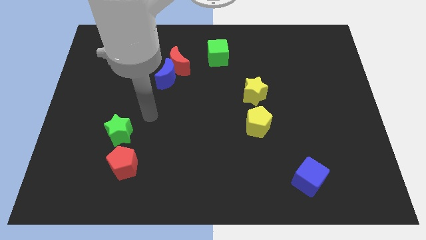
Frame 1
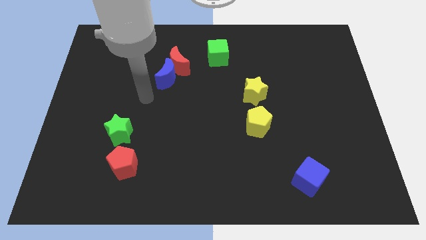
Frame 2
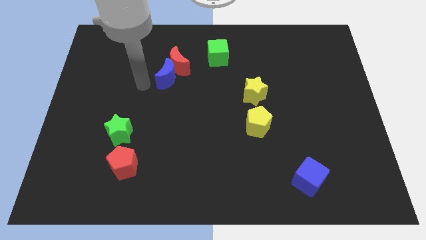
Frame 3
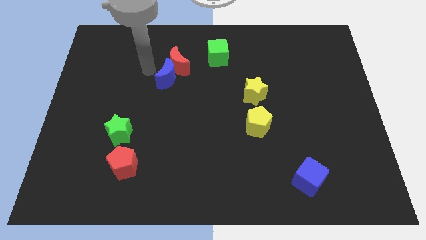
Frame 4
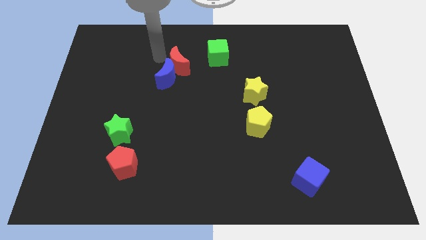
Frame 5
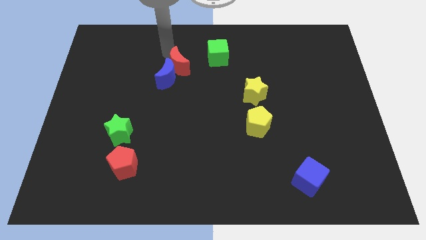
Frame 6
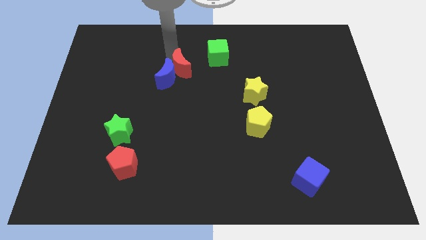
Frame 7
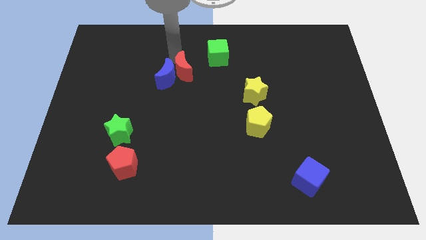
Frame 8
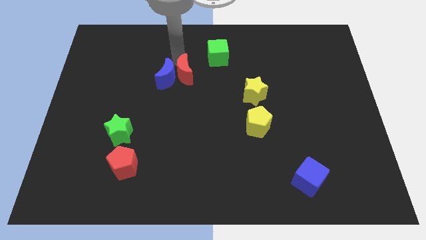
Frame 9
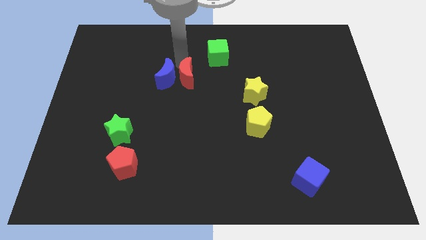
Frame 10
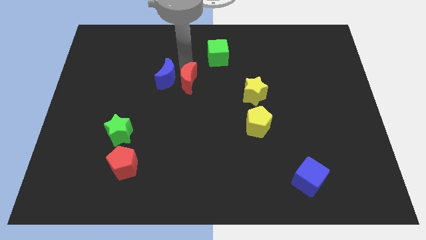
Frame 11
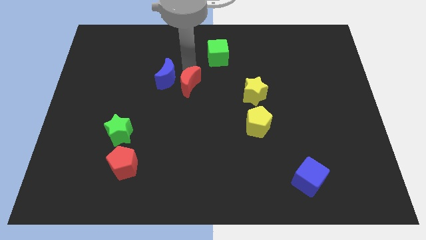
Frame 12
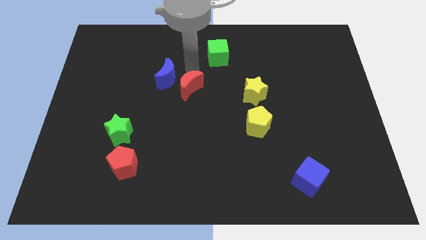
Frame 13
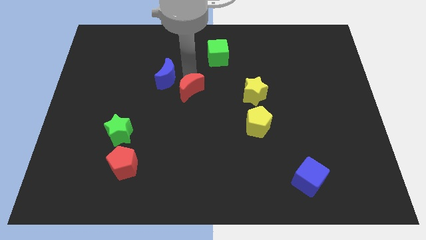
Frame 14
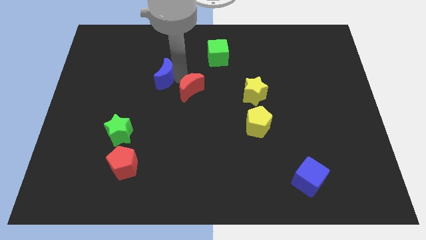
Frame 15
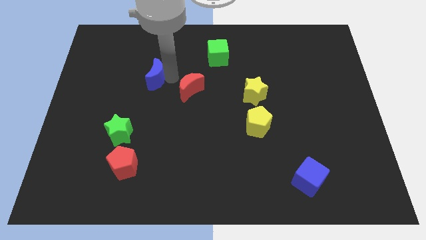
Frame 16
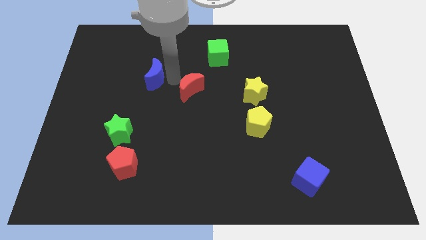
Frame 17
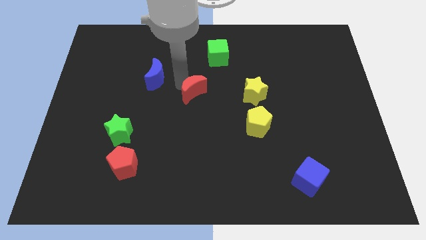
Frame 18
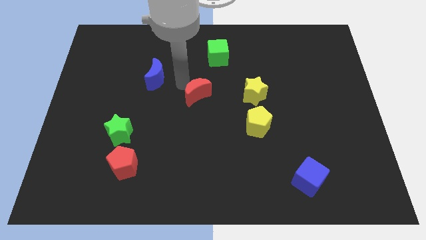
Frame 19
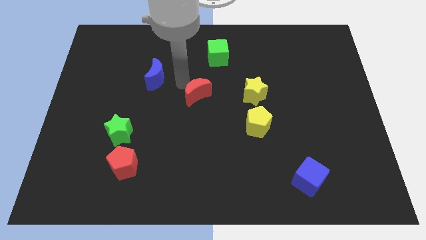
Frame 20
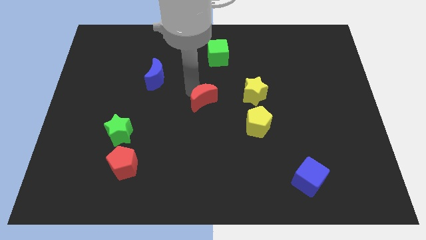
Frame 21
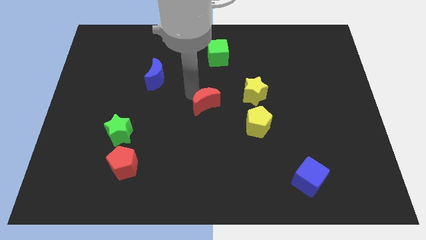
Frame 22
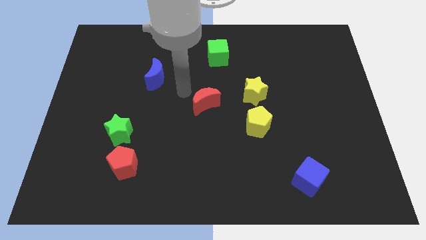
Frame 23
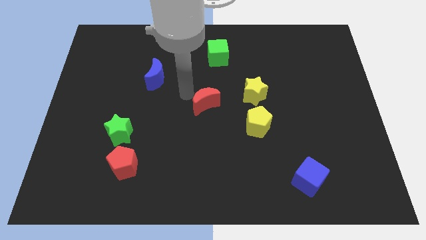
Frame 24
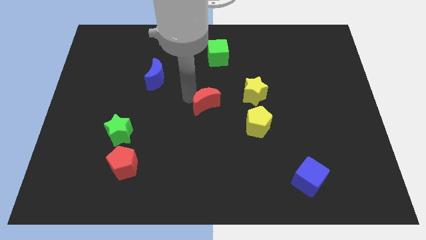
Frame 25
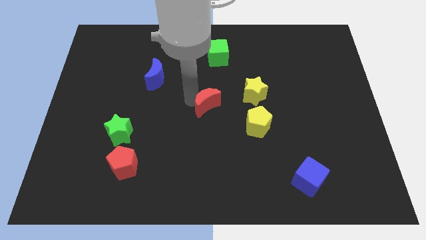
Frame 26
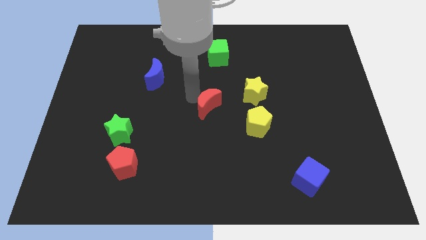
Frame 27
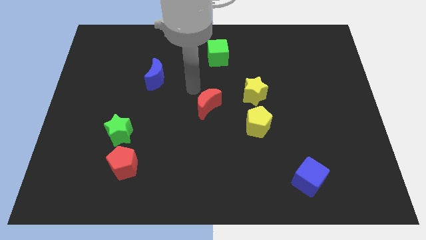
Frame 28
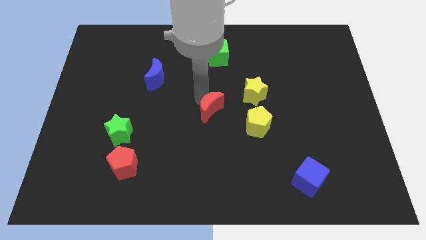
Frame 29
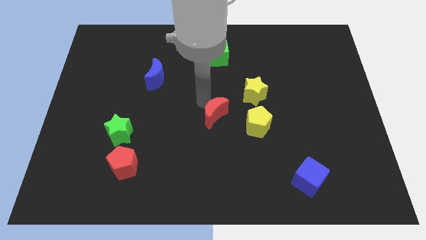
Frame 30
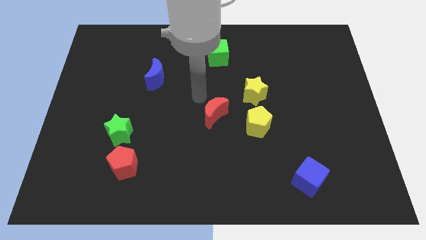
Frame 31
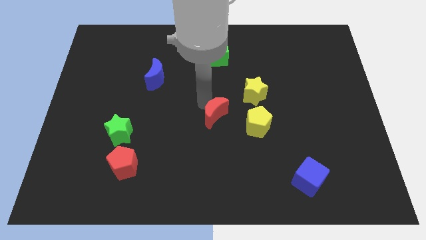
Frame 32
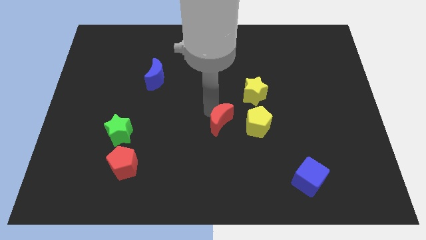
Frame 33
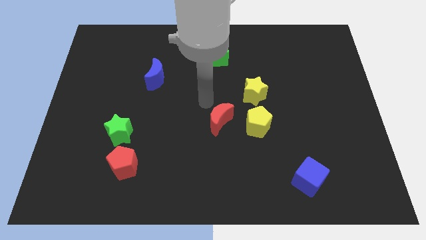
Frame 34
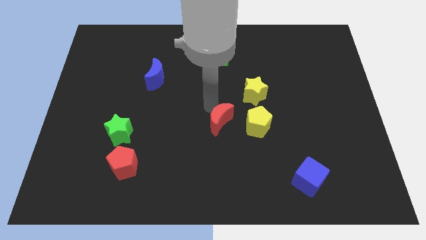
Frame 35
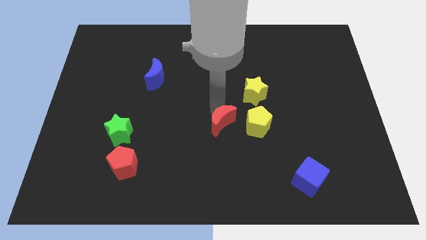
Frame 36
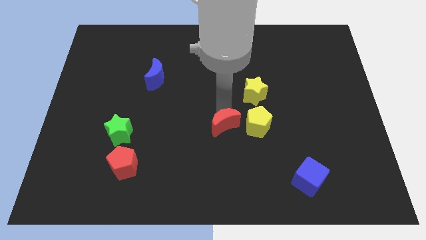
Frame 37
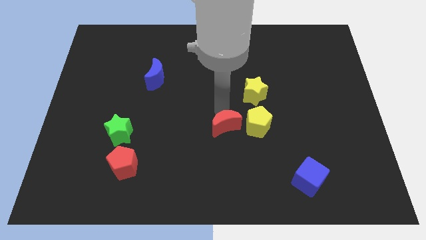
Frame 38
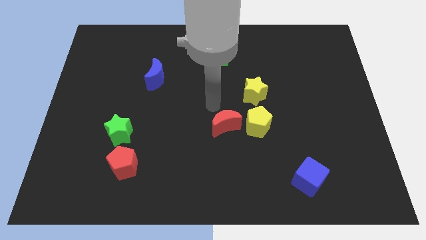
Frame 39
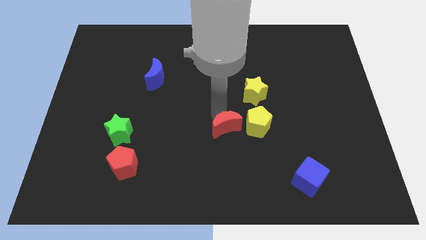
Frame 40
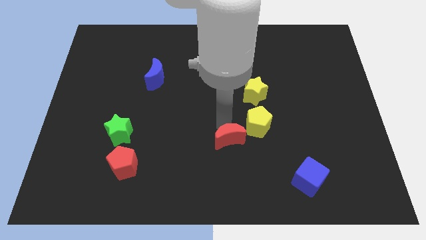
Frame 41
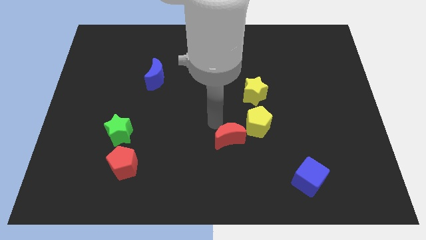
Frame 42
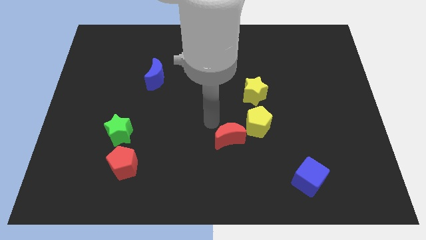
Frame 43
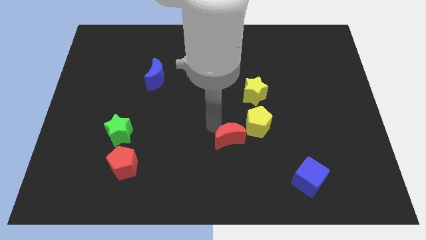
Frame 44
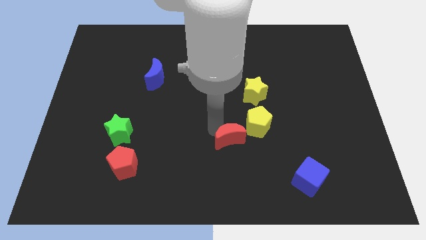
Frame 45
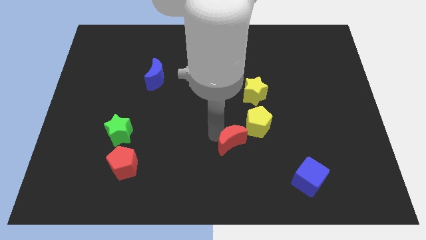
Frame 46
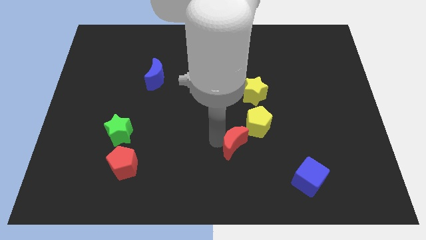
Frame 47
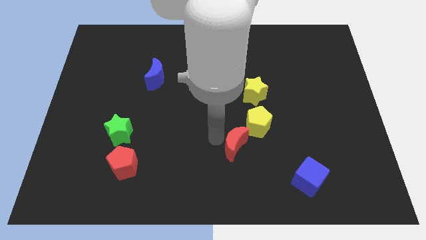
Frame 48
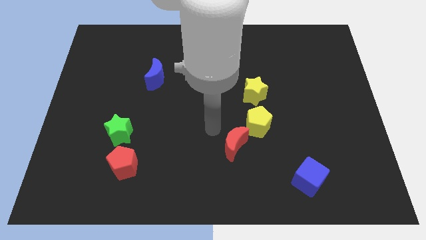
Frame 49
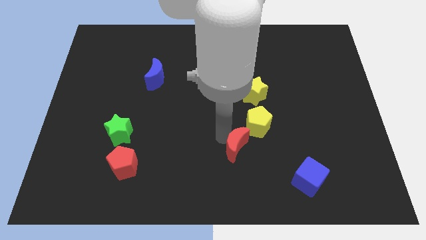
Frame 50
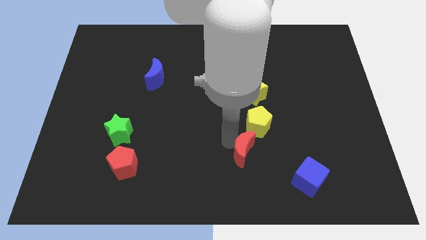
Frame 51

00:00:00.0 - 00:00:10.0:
move the red moon below the yellow pentagon

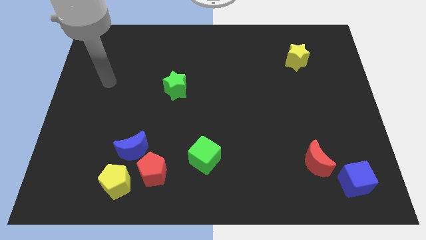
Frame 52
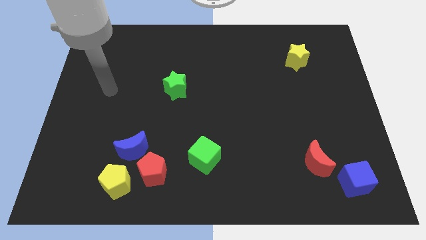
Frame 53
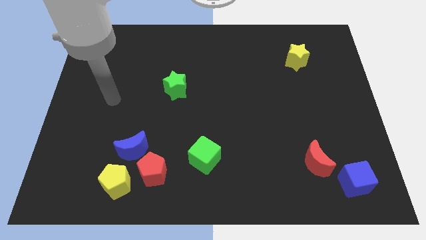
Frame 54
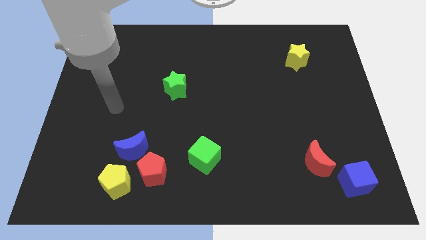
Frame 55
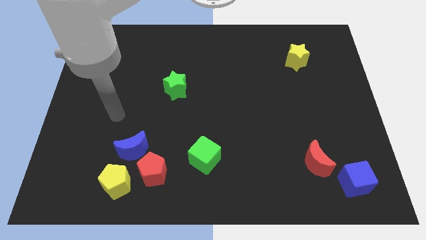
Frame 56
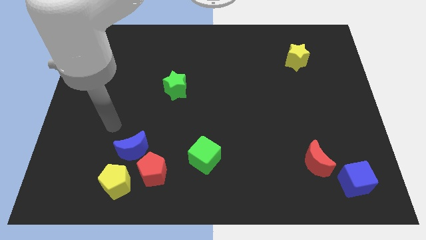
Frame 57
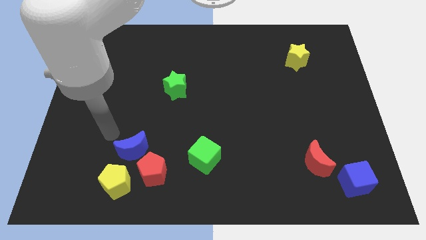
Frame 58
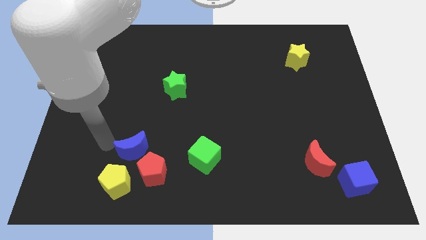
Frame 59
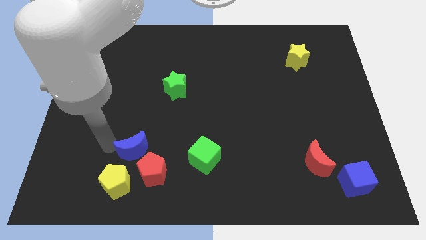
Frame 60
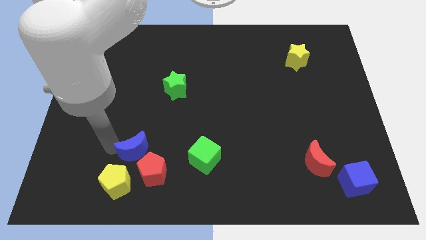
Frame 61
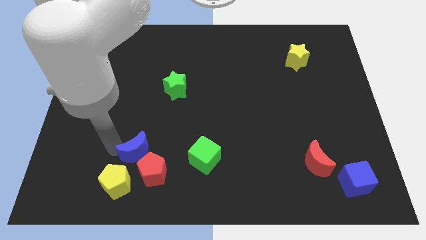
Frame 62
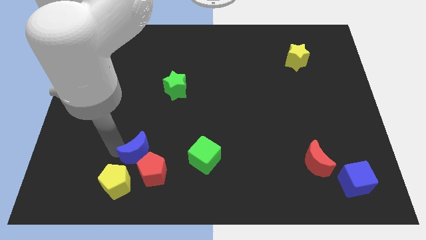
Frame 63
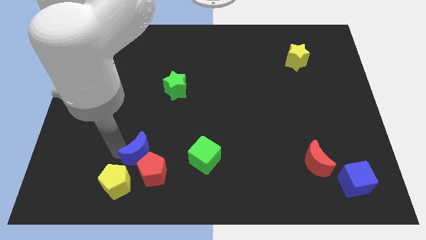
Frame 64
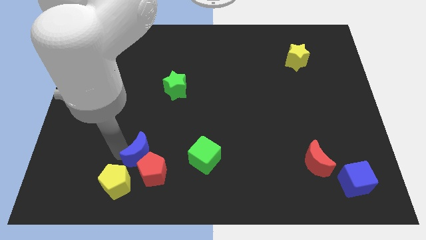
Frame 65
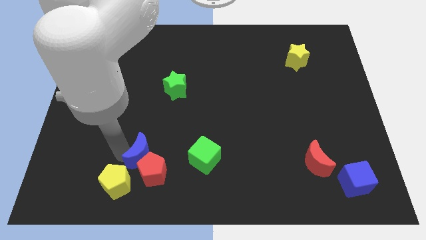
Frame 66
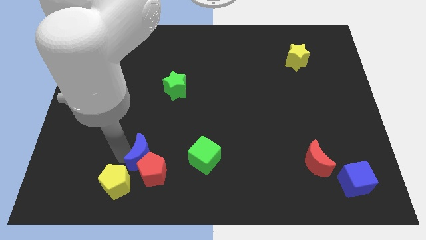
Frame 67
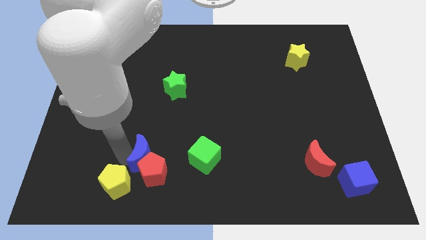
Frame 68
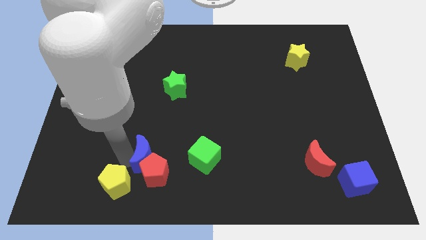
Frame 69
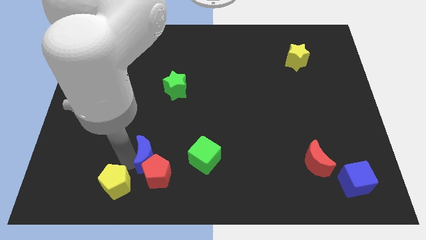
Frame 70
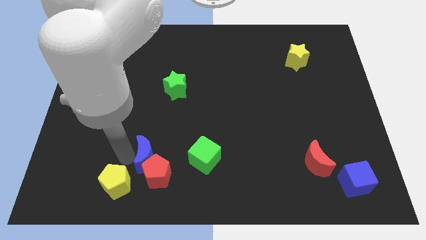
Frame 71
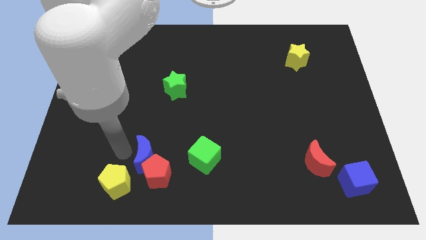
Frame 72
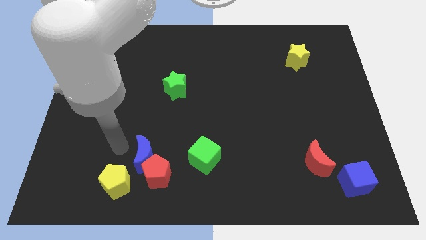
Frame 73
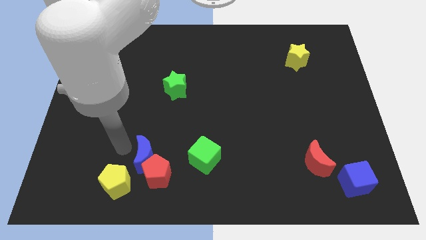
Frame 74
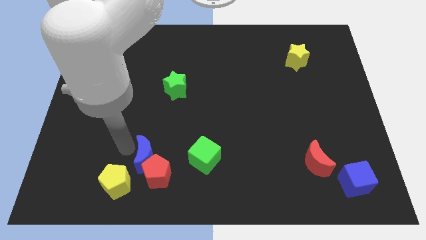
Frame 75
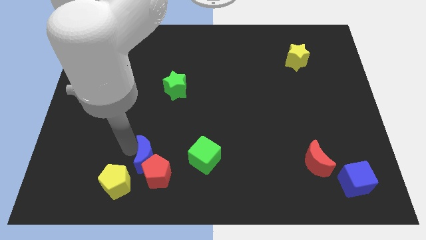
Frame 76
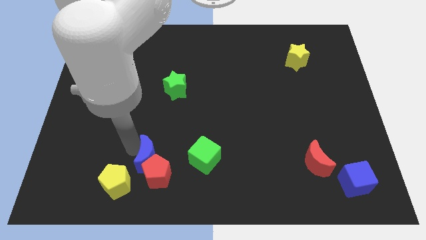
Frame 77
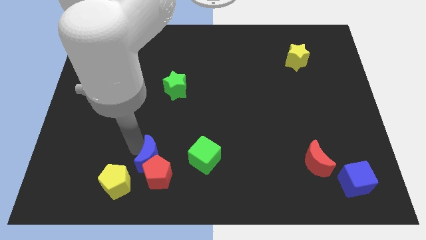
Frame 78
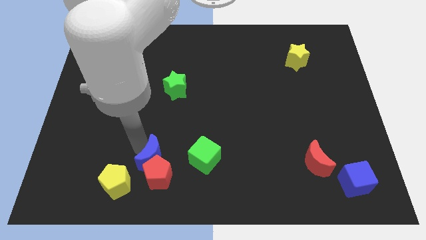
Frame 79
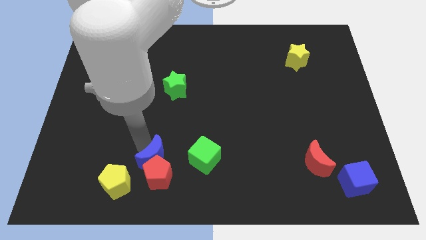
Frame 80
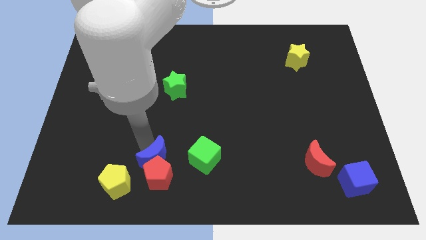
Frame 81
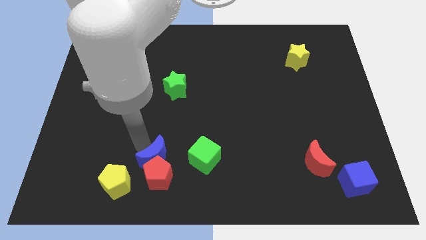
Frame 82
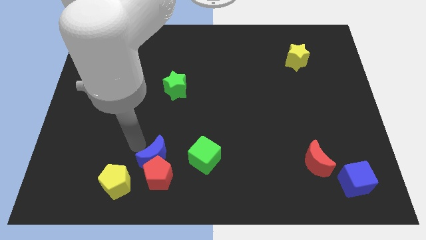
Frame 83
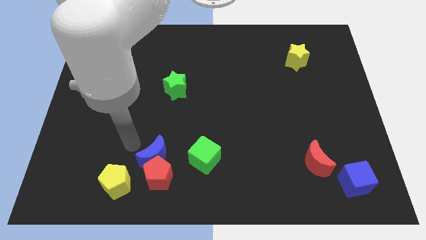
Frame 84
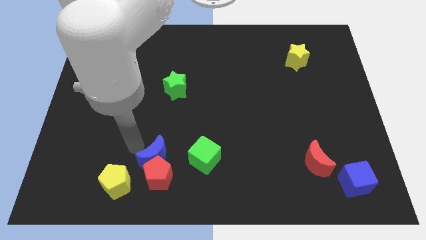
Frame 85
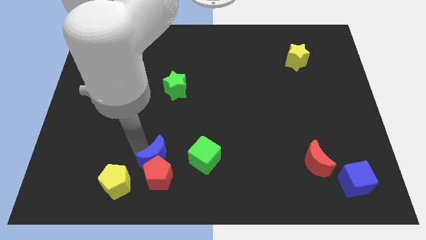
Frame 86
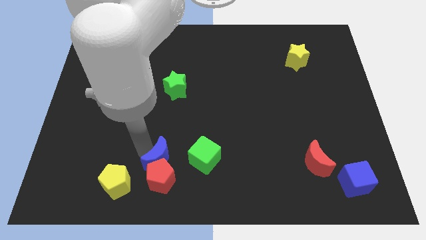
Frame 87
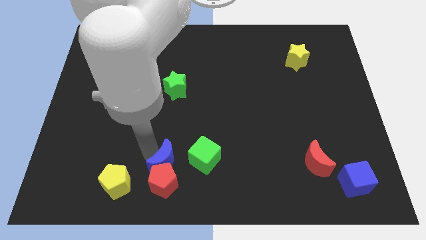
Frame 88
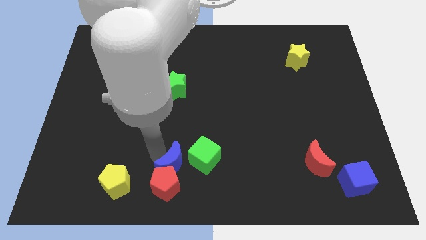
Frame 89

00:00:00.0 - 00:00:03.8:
move the blue moon diagonally down and to the left of the green cube
